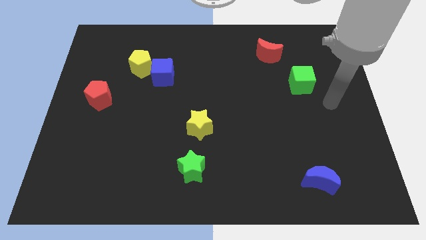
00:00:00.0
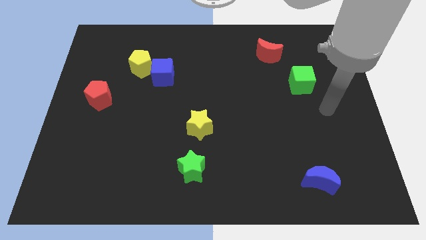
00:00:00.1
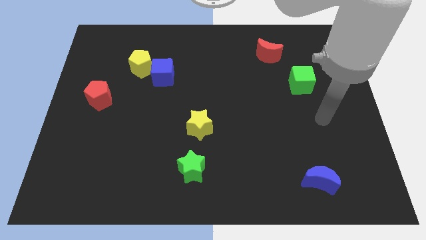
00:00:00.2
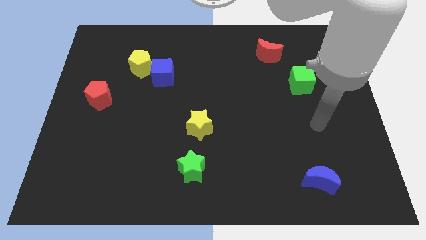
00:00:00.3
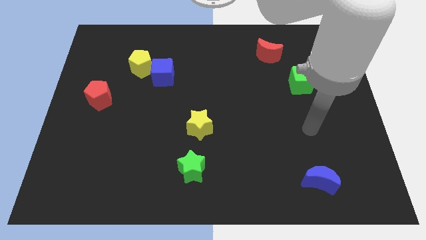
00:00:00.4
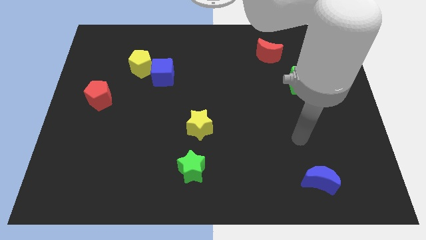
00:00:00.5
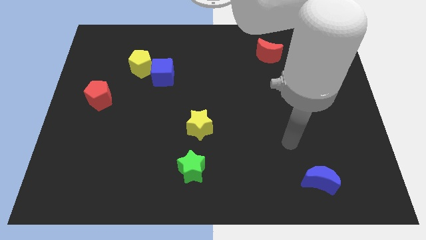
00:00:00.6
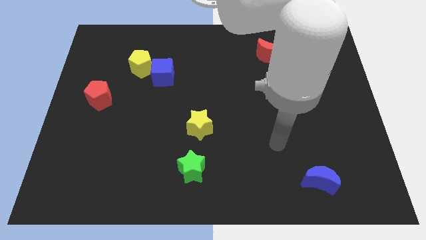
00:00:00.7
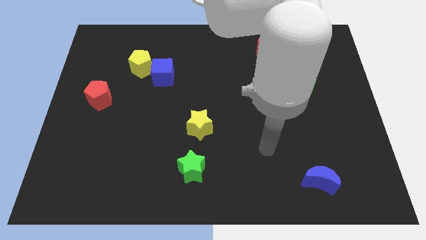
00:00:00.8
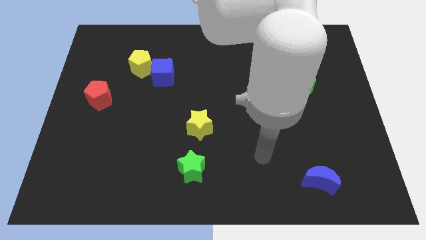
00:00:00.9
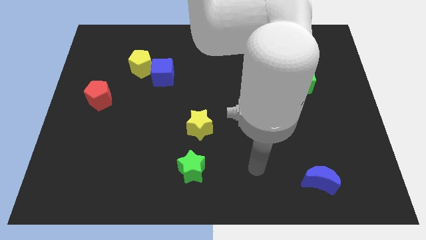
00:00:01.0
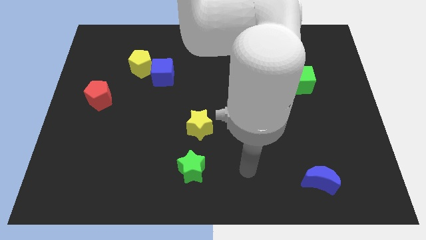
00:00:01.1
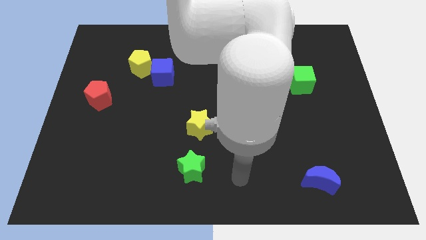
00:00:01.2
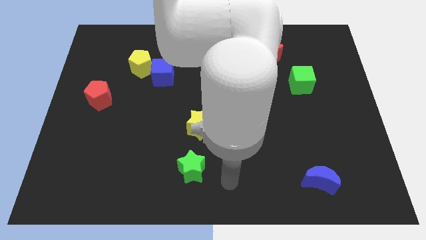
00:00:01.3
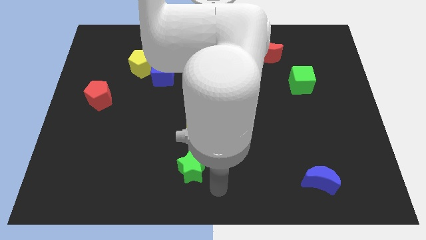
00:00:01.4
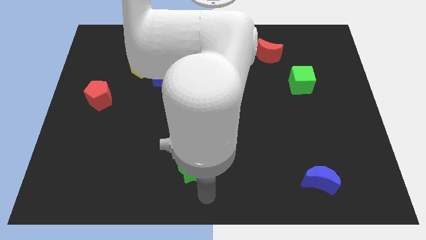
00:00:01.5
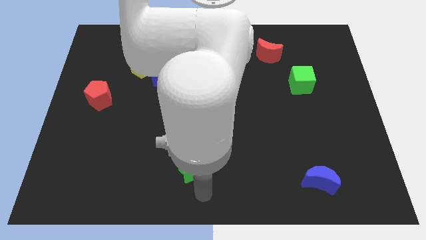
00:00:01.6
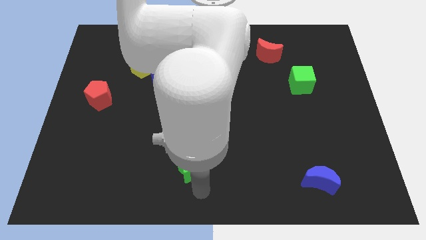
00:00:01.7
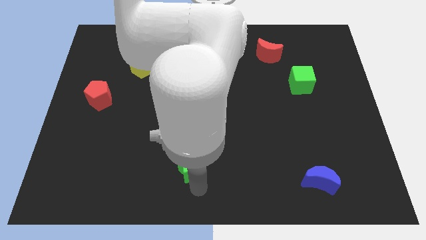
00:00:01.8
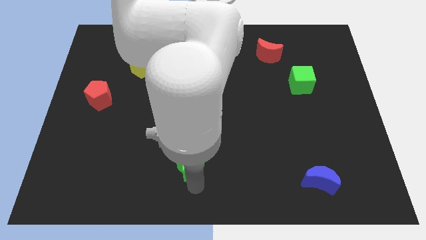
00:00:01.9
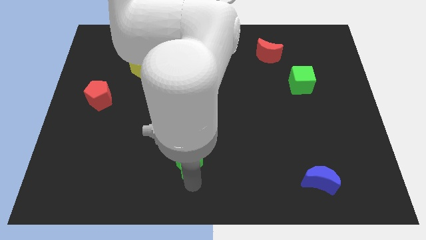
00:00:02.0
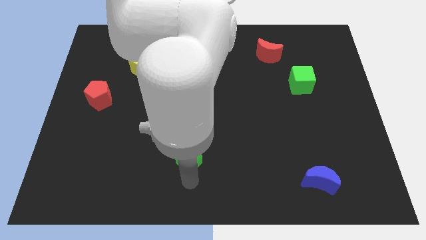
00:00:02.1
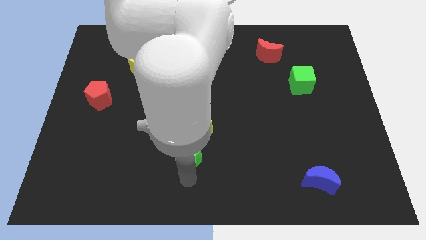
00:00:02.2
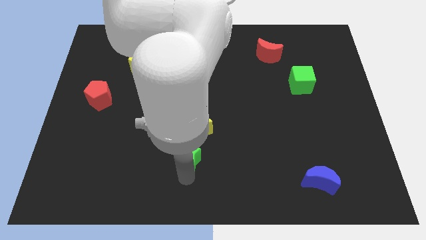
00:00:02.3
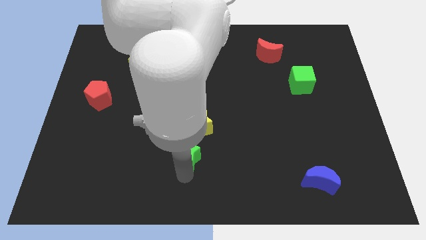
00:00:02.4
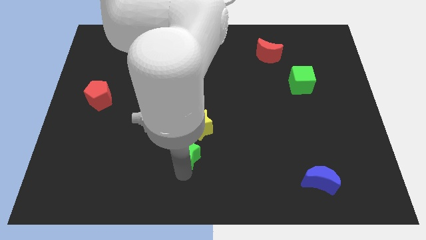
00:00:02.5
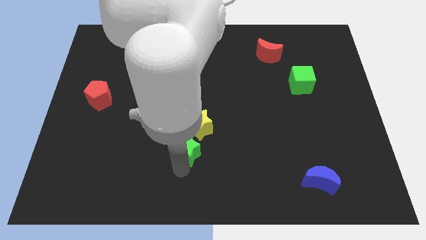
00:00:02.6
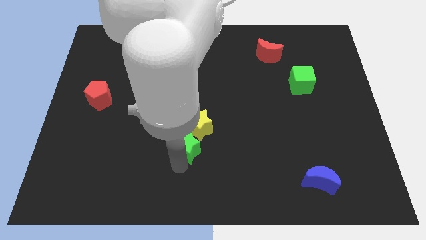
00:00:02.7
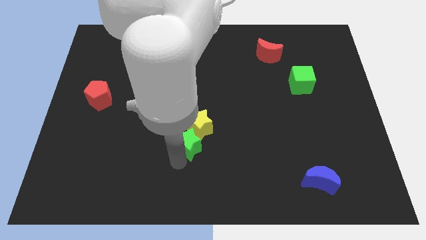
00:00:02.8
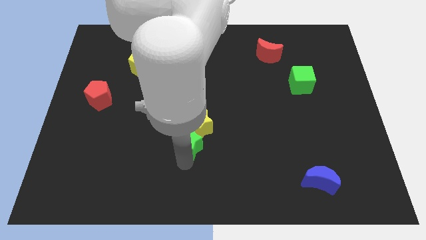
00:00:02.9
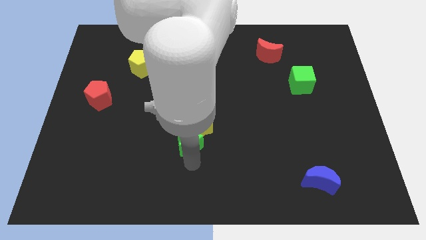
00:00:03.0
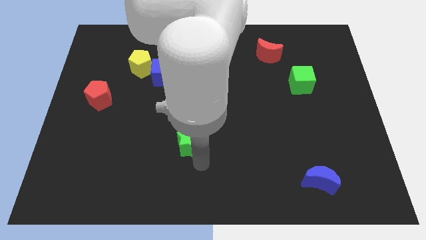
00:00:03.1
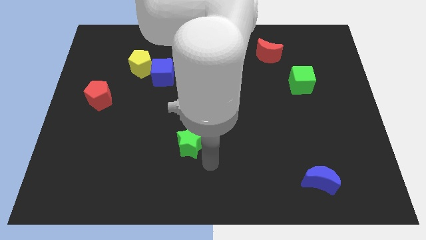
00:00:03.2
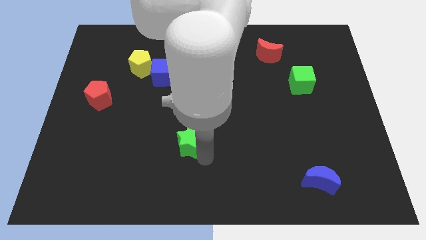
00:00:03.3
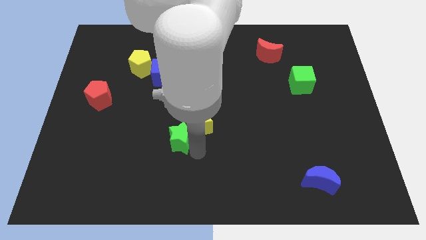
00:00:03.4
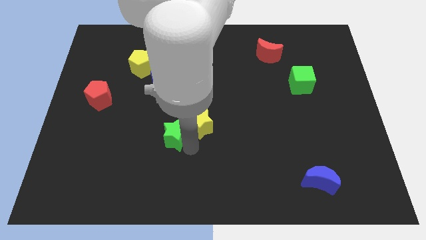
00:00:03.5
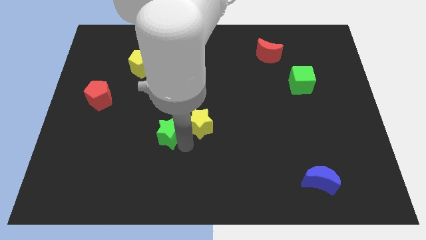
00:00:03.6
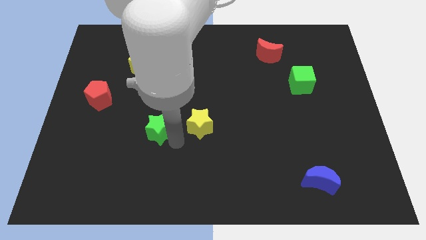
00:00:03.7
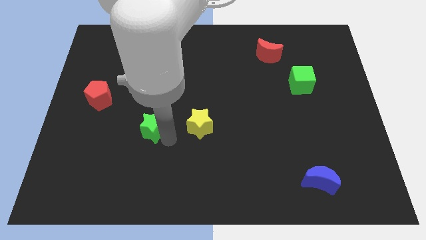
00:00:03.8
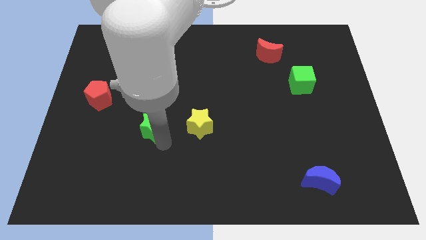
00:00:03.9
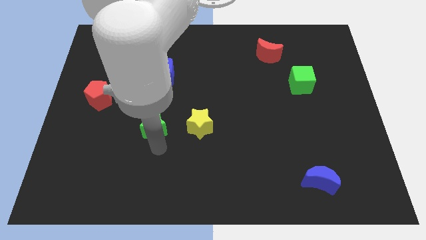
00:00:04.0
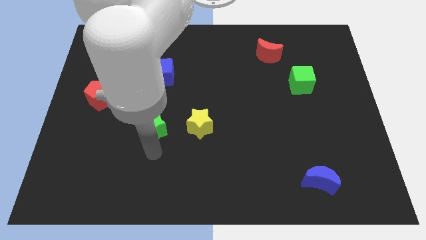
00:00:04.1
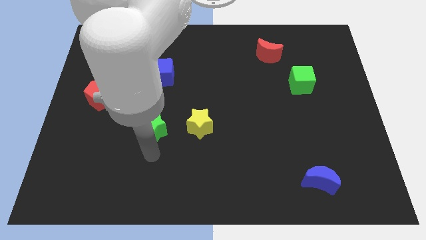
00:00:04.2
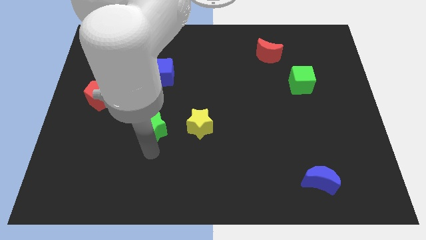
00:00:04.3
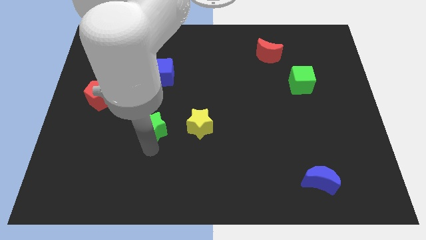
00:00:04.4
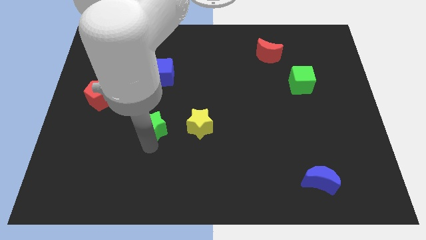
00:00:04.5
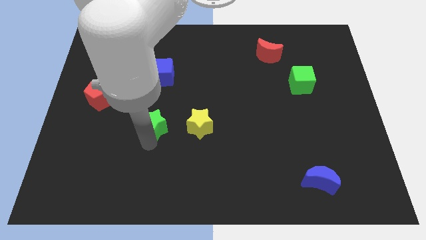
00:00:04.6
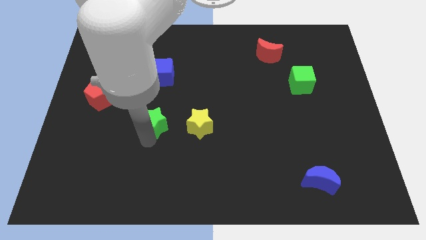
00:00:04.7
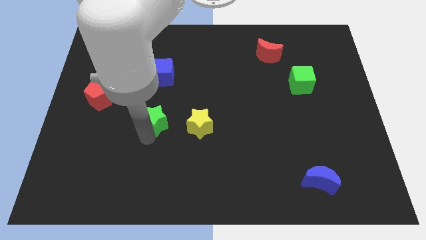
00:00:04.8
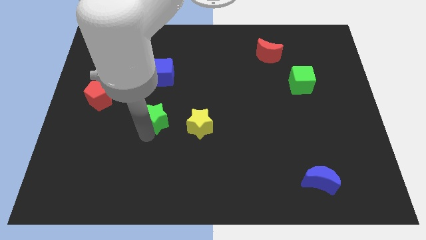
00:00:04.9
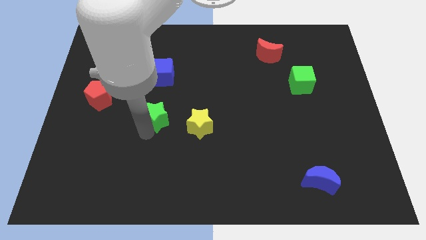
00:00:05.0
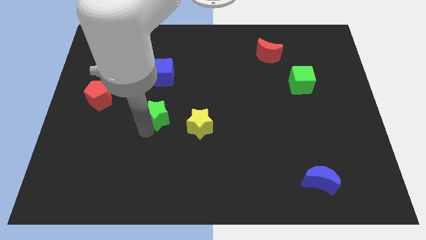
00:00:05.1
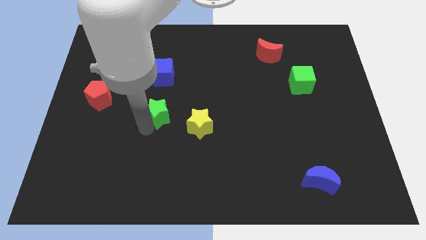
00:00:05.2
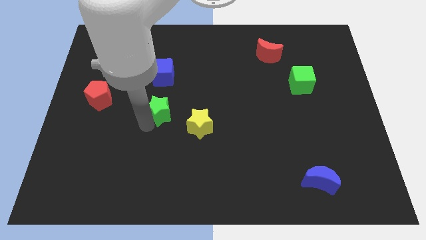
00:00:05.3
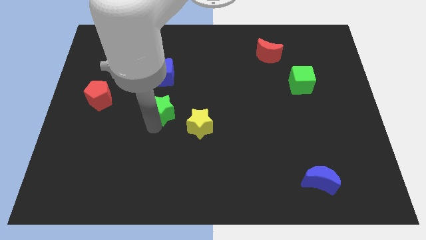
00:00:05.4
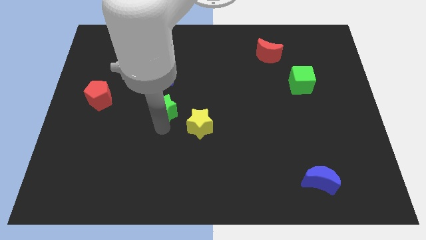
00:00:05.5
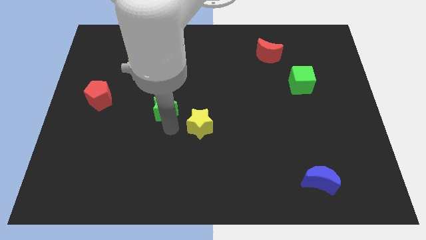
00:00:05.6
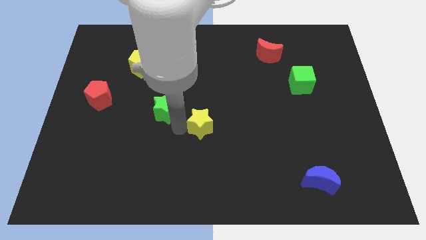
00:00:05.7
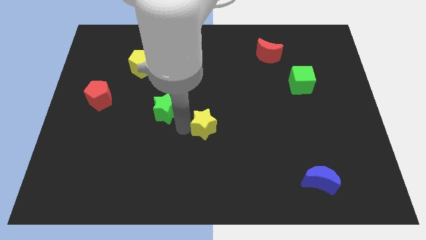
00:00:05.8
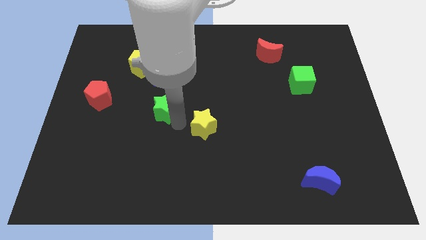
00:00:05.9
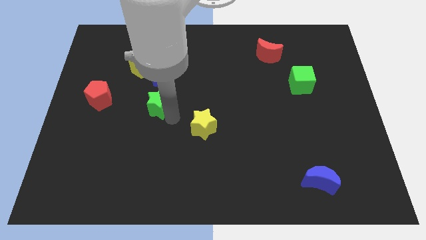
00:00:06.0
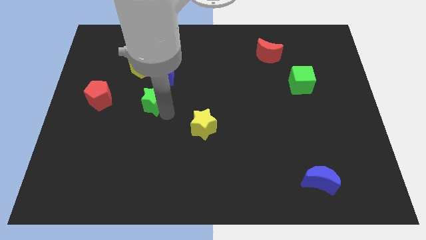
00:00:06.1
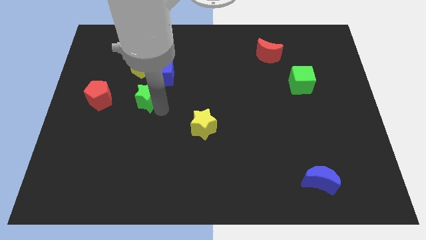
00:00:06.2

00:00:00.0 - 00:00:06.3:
push the green star to the bottom left side of the blue cube

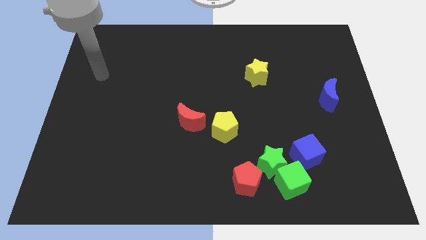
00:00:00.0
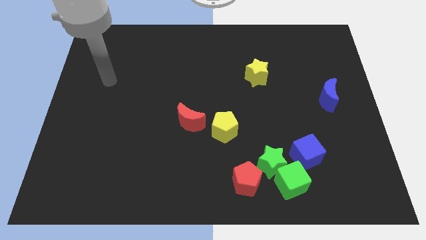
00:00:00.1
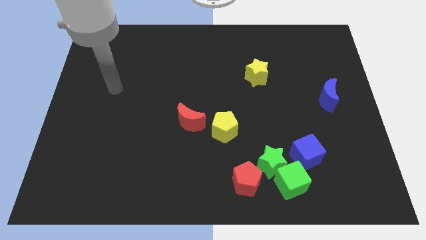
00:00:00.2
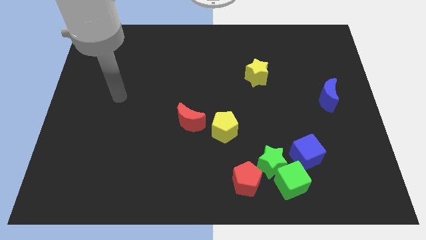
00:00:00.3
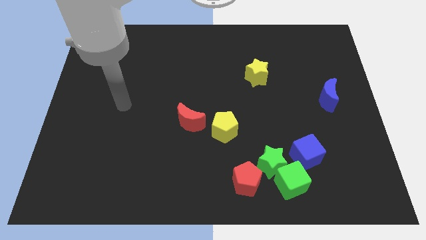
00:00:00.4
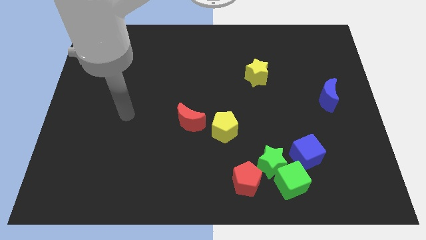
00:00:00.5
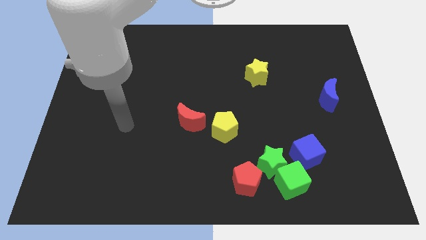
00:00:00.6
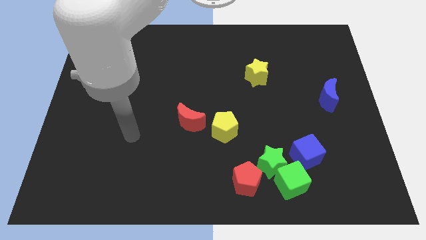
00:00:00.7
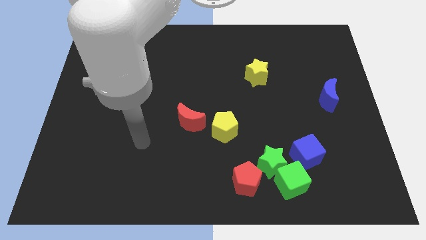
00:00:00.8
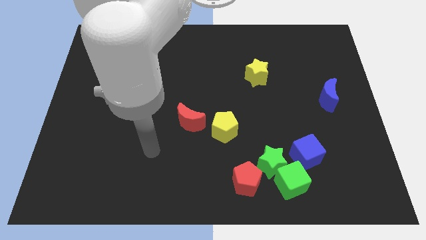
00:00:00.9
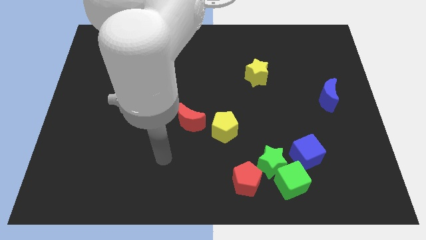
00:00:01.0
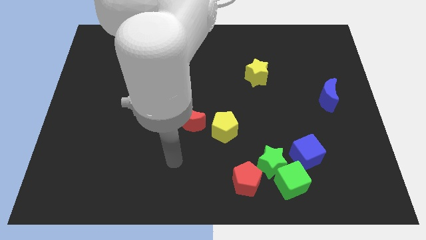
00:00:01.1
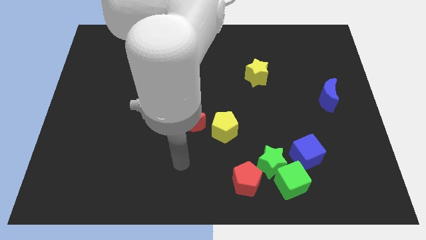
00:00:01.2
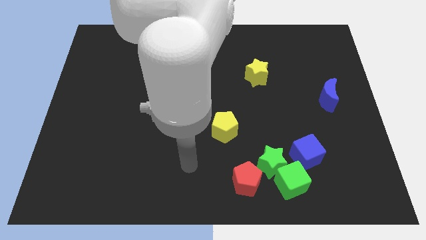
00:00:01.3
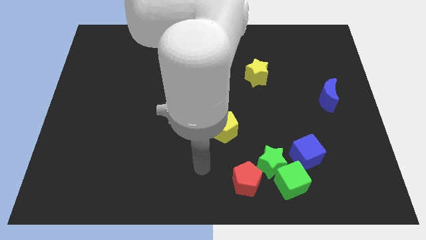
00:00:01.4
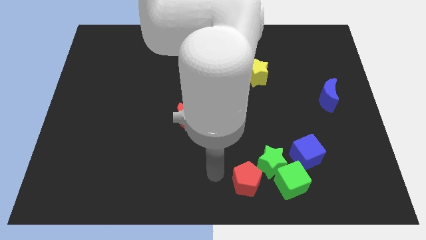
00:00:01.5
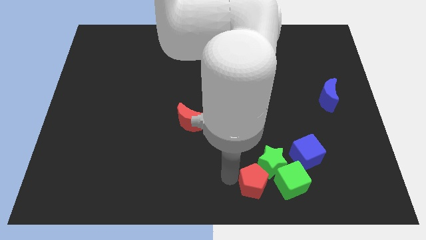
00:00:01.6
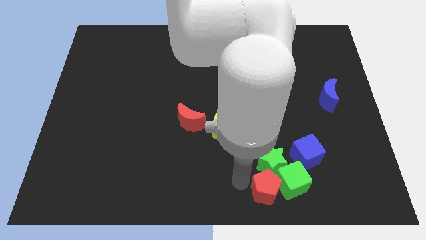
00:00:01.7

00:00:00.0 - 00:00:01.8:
push the green cube to the top right of the red pentagon
